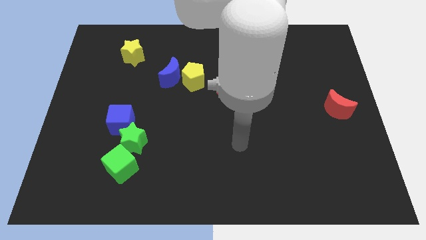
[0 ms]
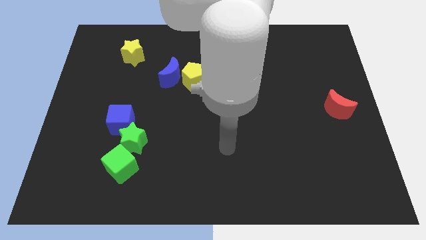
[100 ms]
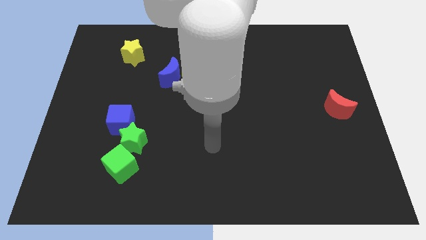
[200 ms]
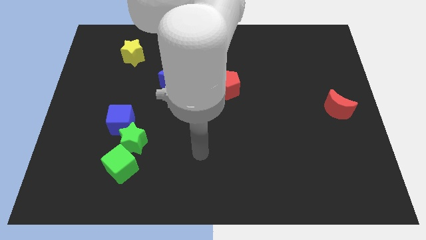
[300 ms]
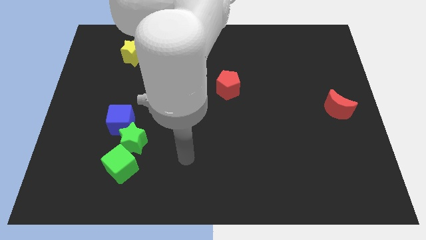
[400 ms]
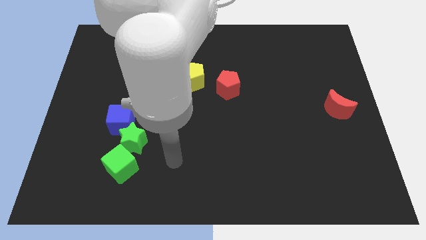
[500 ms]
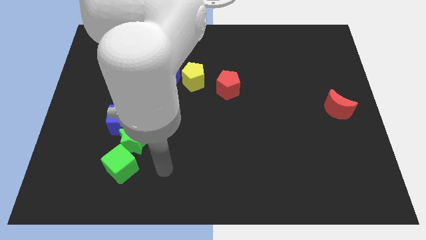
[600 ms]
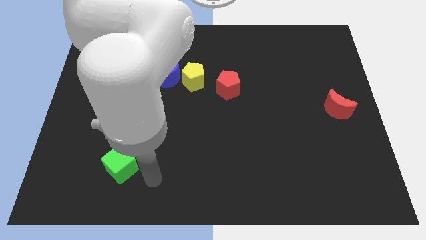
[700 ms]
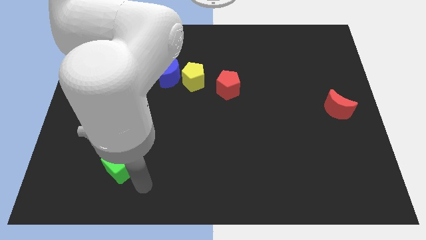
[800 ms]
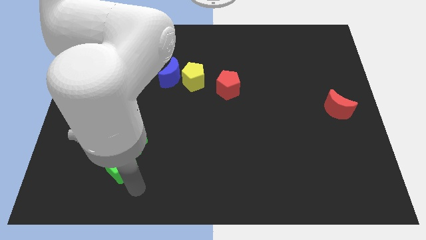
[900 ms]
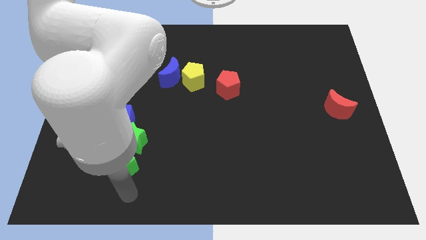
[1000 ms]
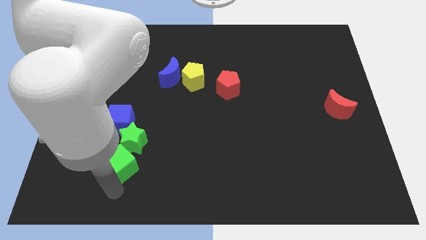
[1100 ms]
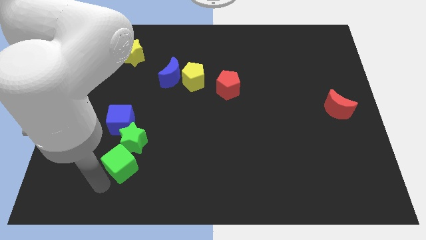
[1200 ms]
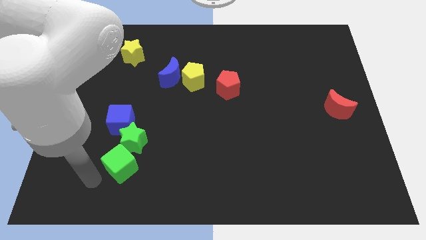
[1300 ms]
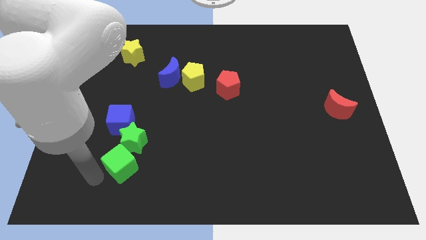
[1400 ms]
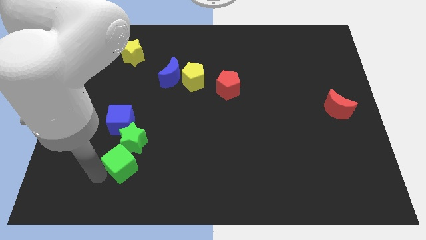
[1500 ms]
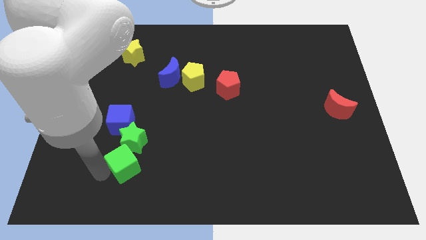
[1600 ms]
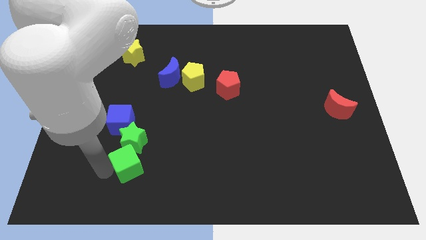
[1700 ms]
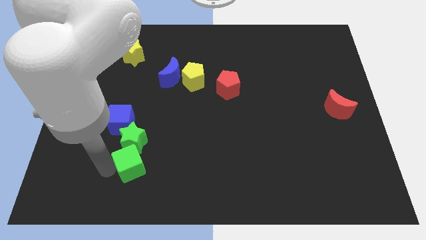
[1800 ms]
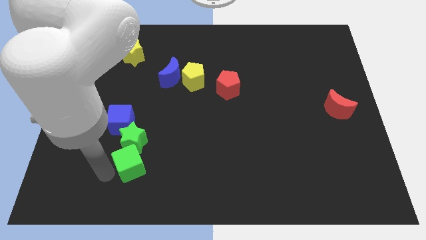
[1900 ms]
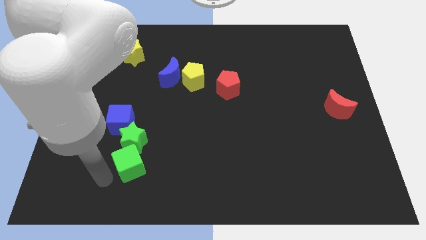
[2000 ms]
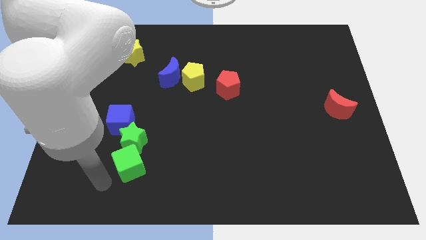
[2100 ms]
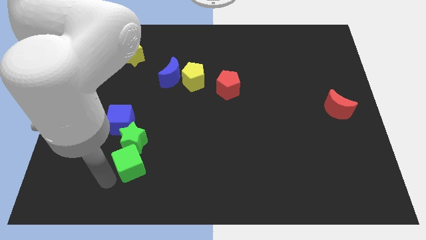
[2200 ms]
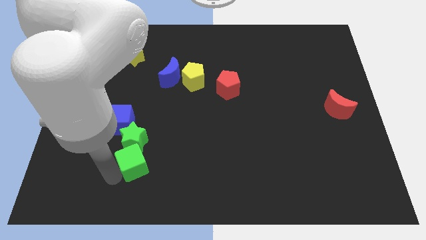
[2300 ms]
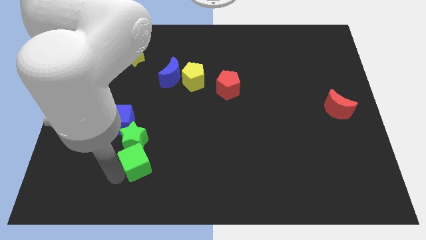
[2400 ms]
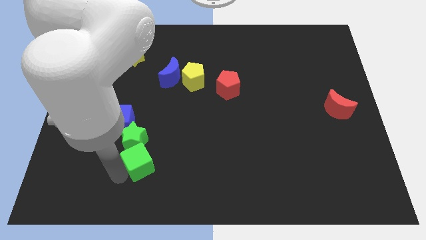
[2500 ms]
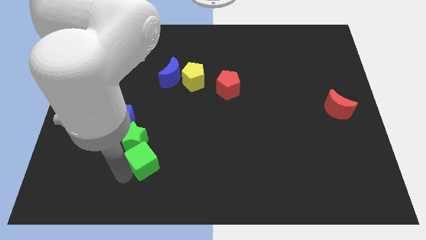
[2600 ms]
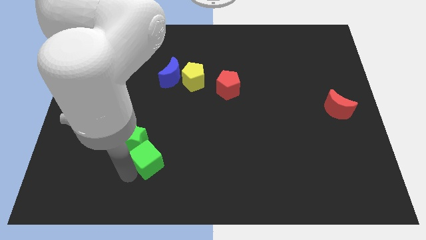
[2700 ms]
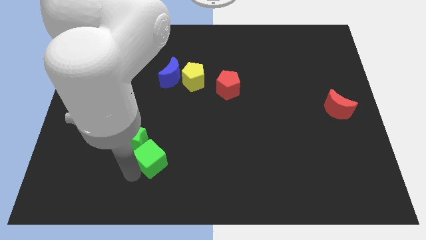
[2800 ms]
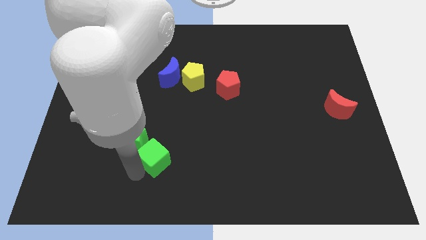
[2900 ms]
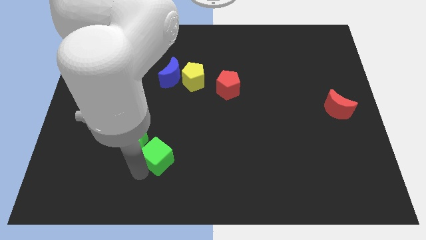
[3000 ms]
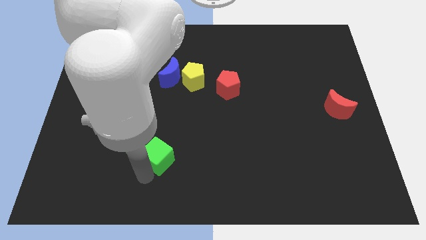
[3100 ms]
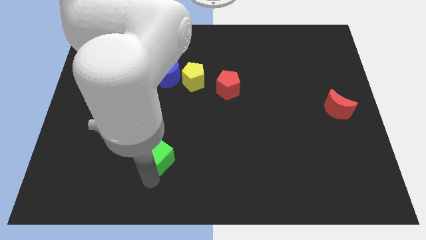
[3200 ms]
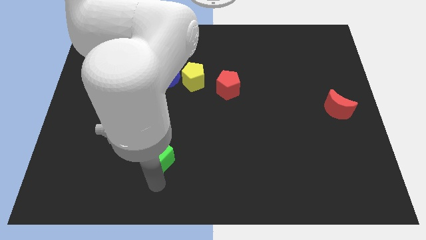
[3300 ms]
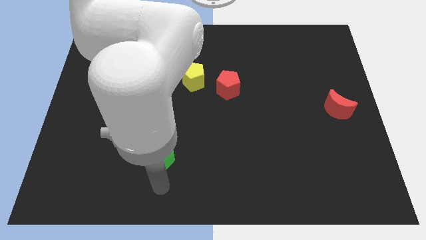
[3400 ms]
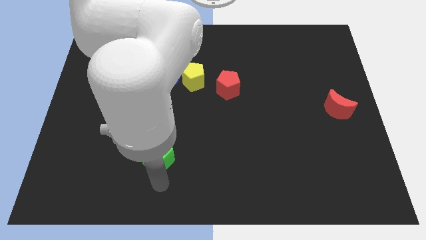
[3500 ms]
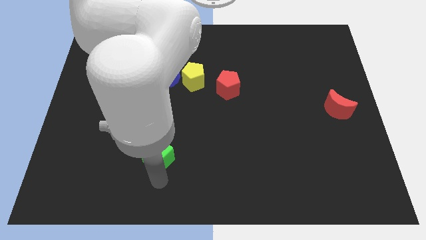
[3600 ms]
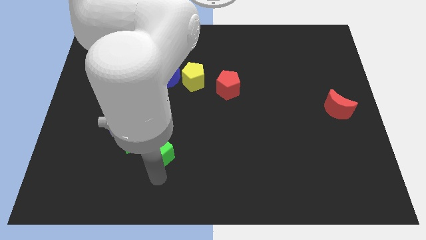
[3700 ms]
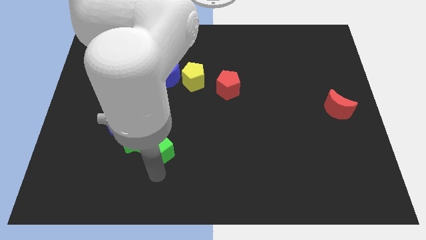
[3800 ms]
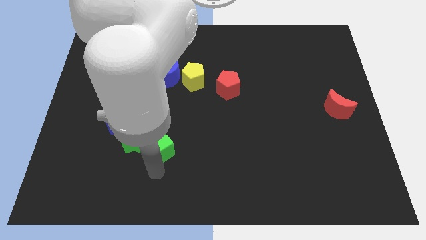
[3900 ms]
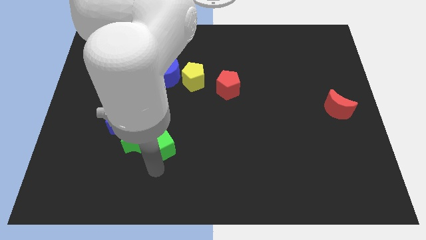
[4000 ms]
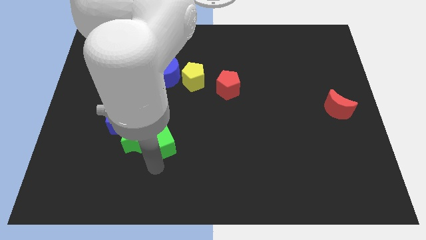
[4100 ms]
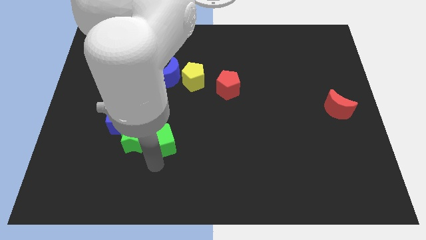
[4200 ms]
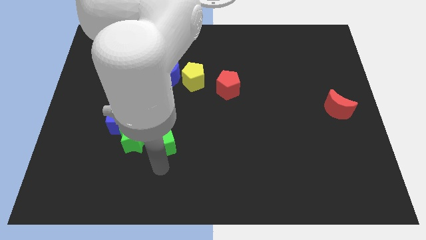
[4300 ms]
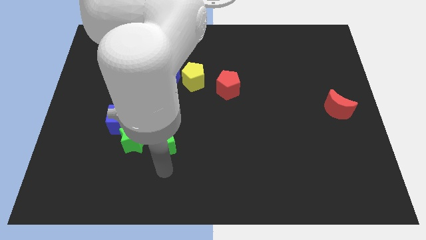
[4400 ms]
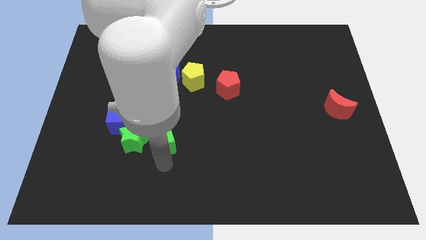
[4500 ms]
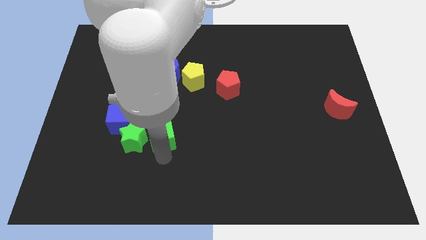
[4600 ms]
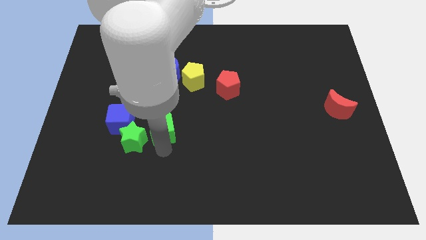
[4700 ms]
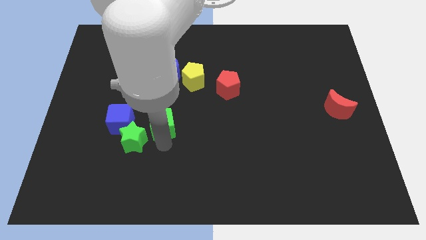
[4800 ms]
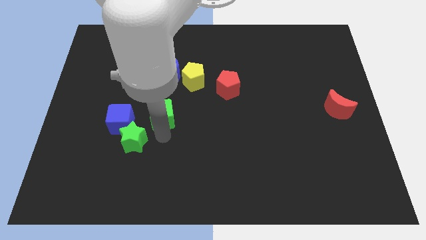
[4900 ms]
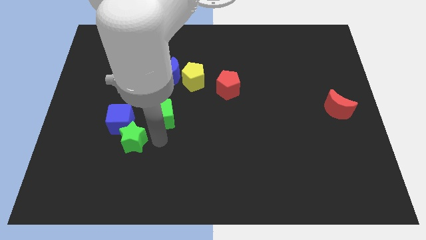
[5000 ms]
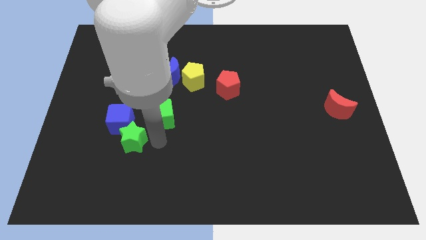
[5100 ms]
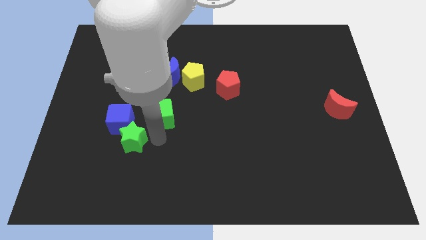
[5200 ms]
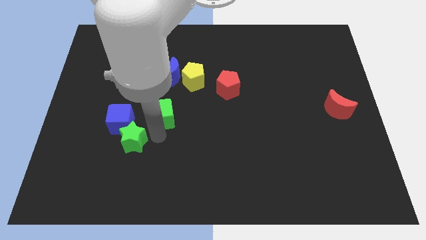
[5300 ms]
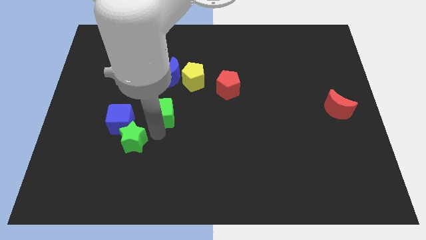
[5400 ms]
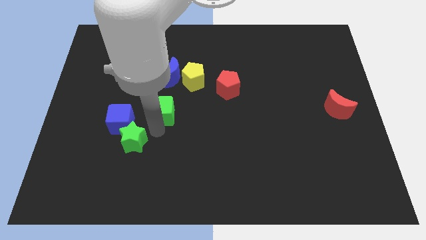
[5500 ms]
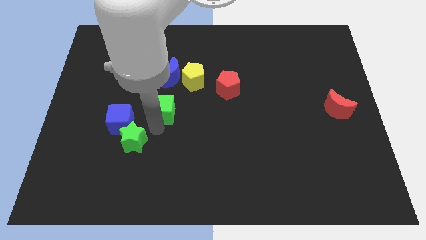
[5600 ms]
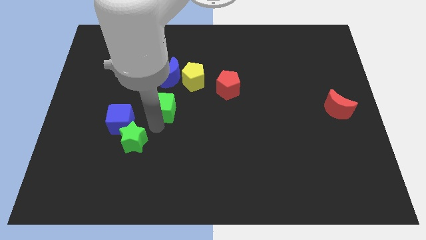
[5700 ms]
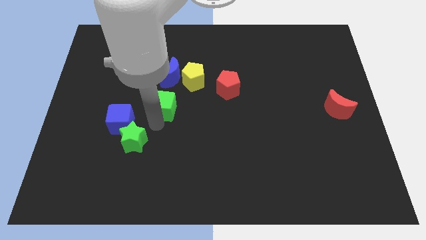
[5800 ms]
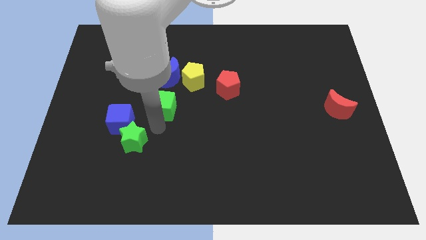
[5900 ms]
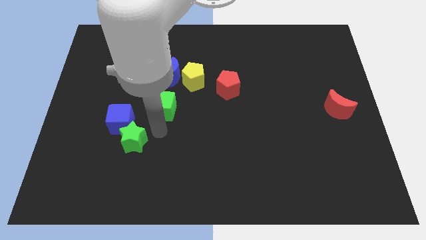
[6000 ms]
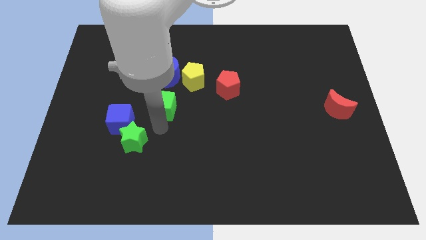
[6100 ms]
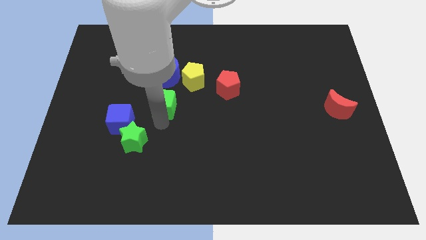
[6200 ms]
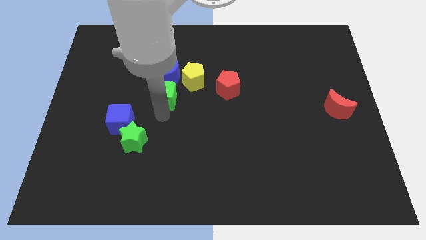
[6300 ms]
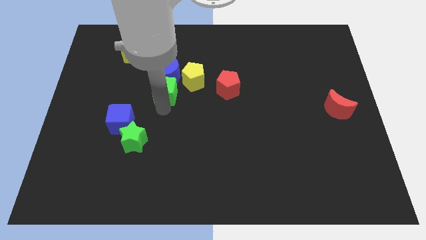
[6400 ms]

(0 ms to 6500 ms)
slide the green cube towards the blue moon
